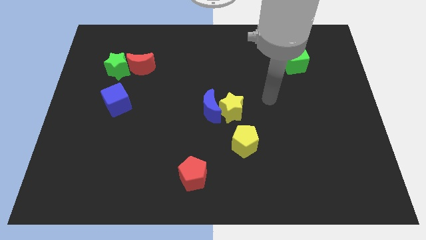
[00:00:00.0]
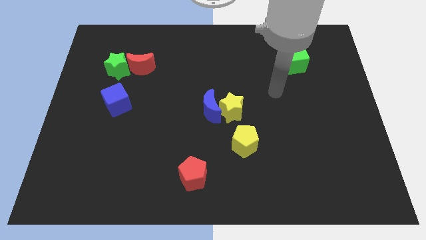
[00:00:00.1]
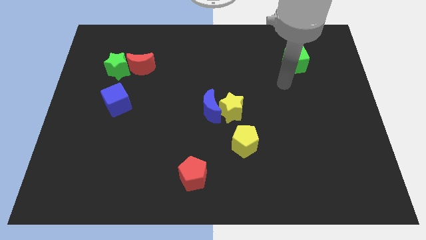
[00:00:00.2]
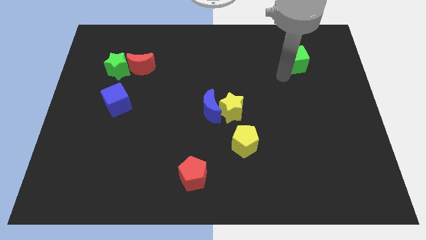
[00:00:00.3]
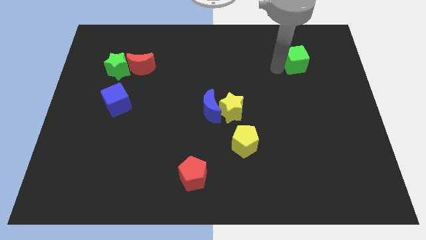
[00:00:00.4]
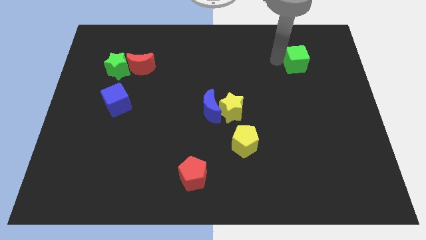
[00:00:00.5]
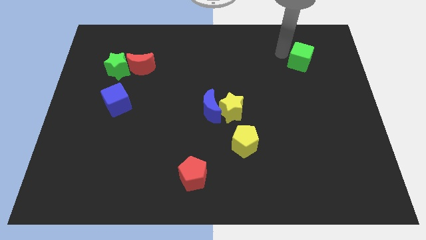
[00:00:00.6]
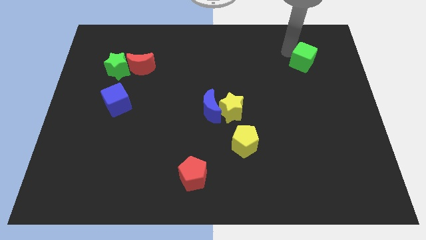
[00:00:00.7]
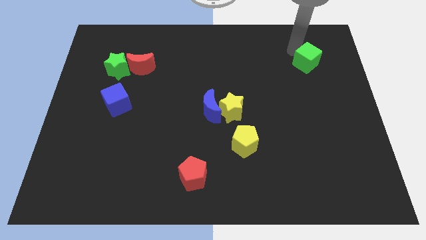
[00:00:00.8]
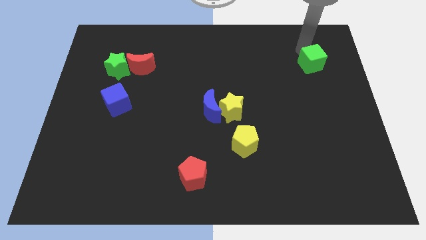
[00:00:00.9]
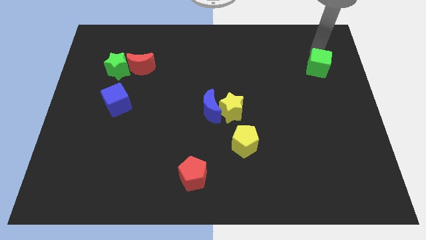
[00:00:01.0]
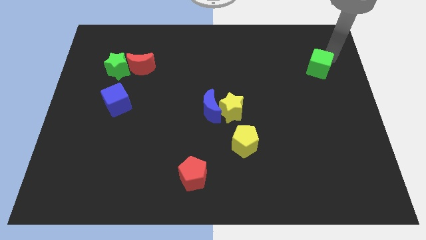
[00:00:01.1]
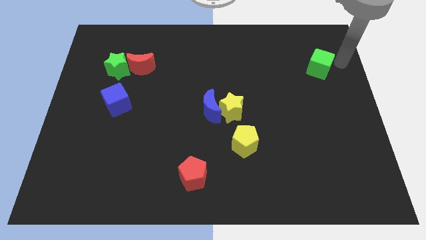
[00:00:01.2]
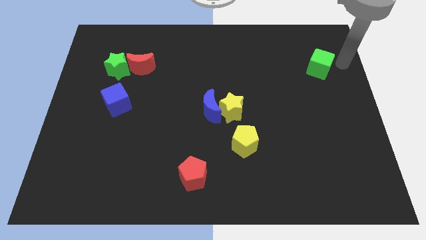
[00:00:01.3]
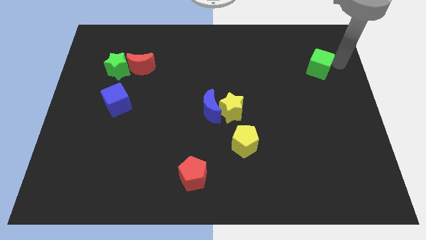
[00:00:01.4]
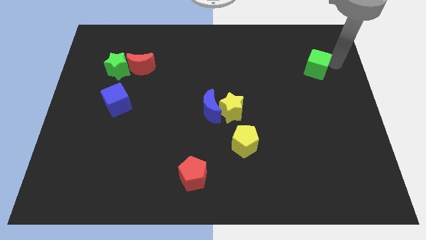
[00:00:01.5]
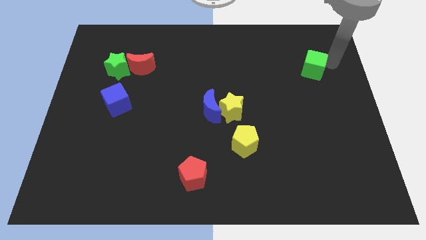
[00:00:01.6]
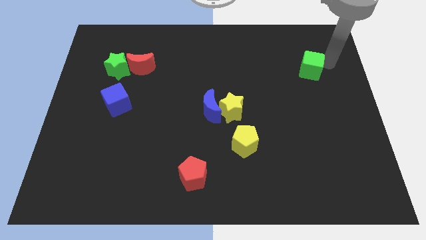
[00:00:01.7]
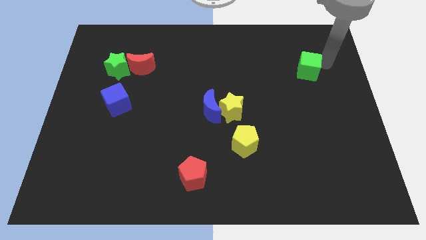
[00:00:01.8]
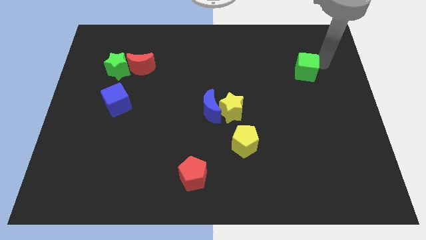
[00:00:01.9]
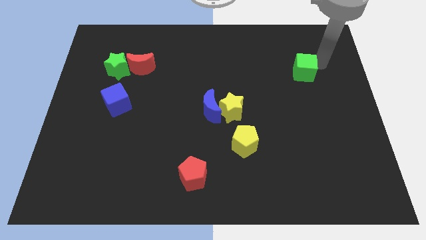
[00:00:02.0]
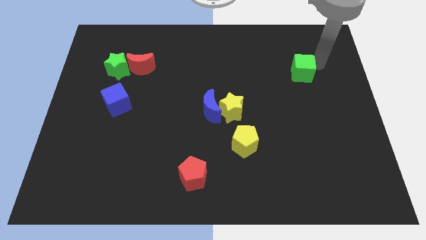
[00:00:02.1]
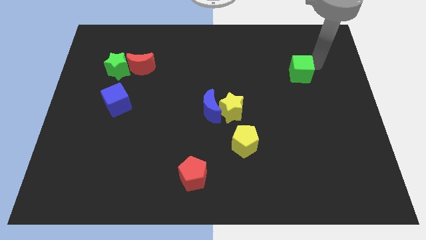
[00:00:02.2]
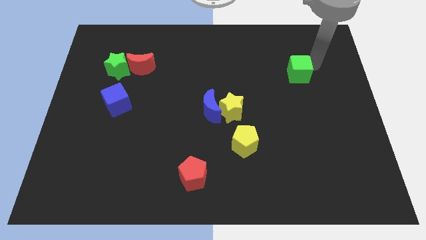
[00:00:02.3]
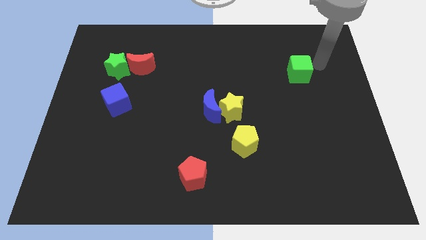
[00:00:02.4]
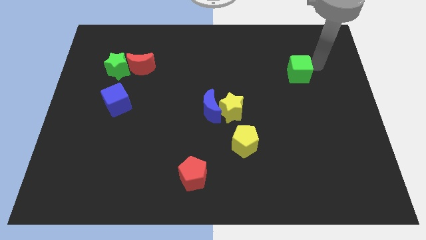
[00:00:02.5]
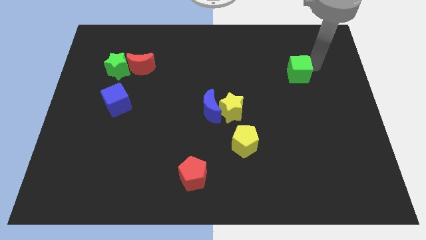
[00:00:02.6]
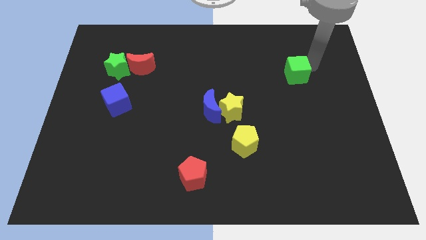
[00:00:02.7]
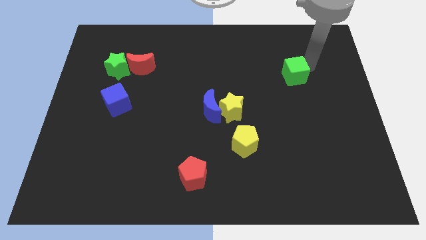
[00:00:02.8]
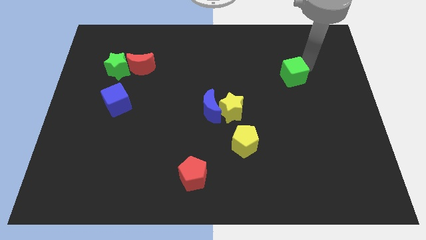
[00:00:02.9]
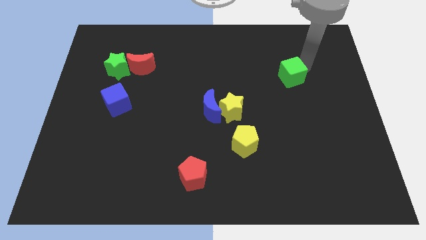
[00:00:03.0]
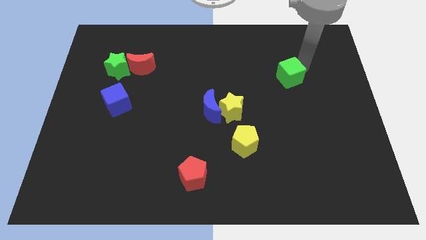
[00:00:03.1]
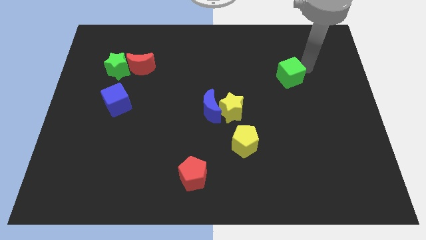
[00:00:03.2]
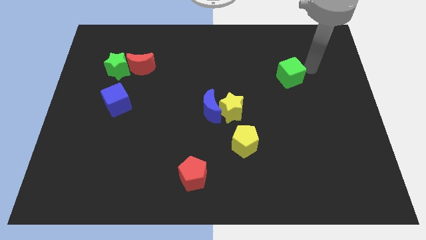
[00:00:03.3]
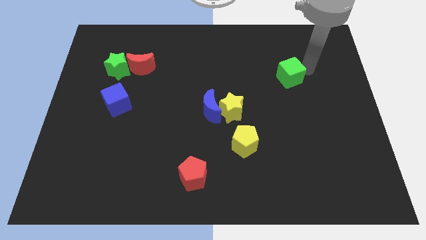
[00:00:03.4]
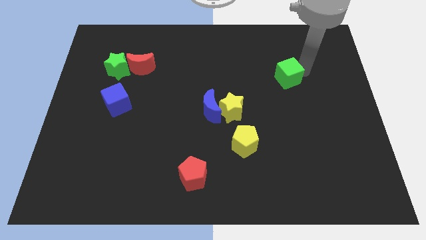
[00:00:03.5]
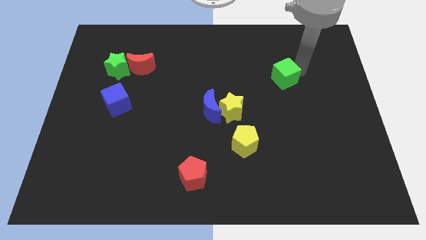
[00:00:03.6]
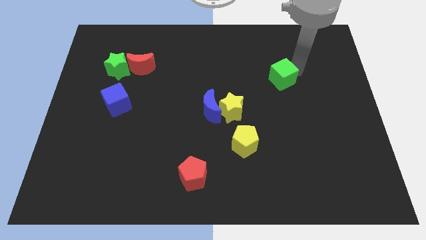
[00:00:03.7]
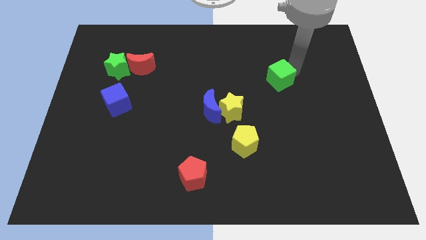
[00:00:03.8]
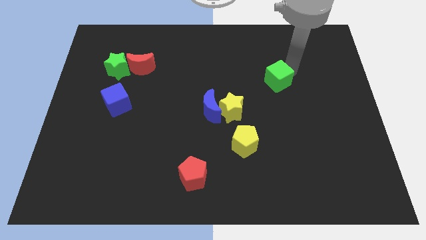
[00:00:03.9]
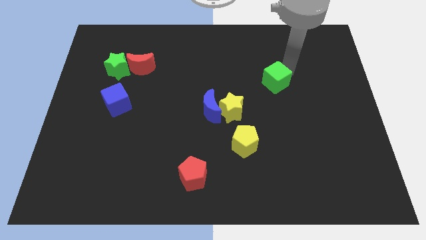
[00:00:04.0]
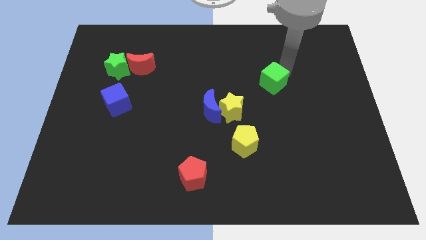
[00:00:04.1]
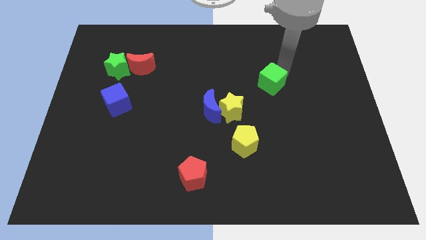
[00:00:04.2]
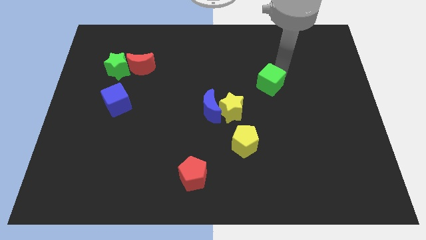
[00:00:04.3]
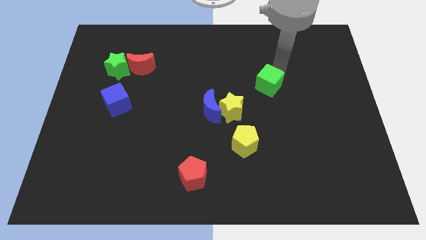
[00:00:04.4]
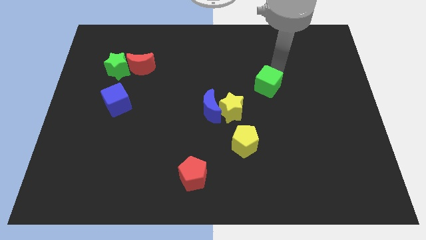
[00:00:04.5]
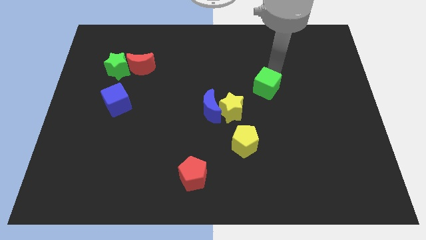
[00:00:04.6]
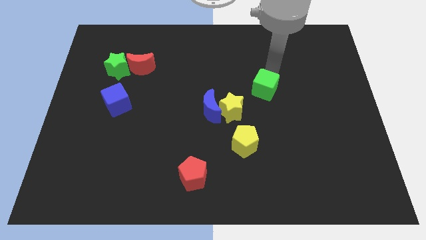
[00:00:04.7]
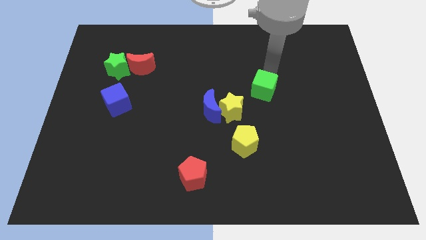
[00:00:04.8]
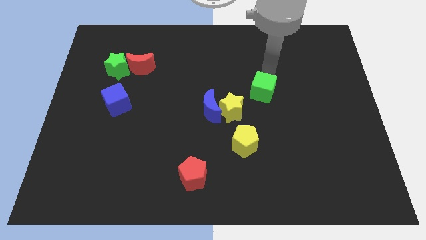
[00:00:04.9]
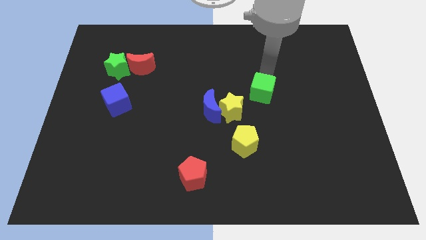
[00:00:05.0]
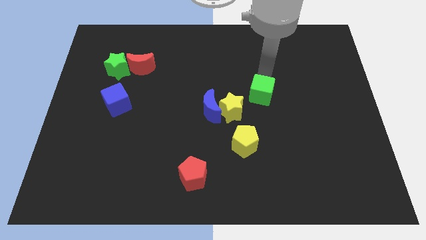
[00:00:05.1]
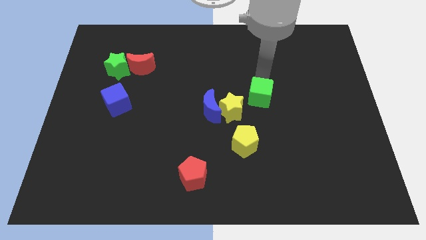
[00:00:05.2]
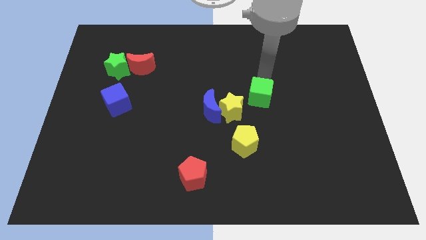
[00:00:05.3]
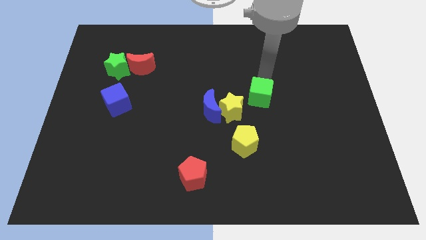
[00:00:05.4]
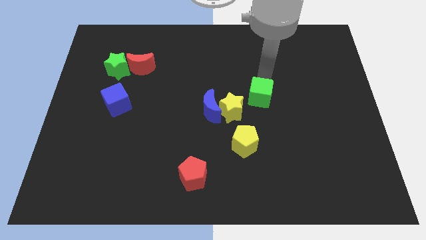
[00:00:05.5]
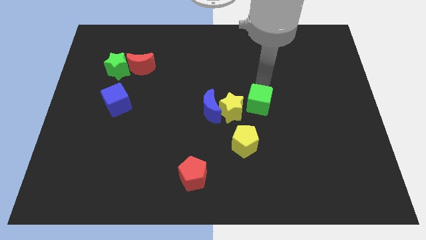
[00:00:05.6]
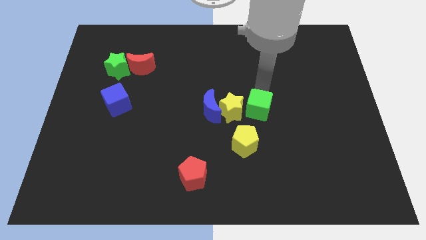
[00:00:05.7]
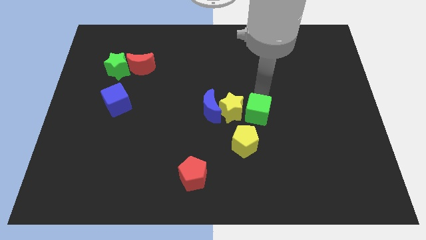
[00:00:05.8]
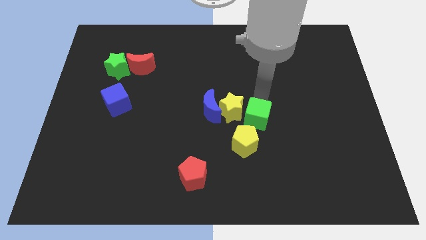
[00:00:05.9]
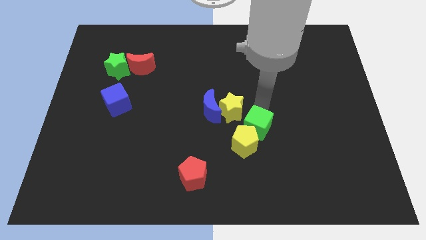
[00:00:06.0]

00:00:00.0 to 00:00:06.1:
slide the green cube down and to the left

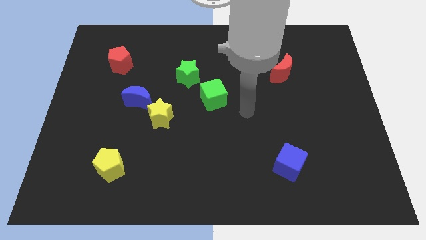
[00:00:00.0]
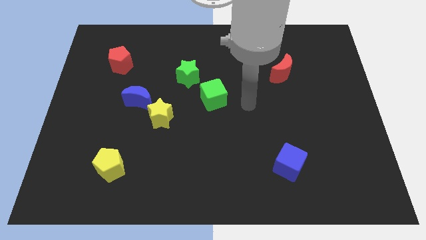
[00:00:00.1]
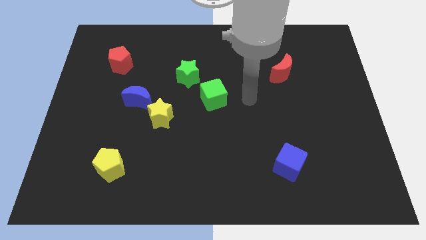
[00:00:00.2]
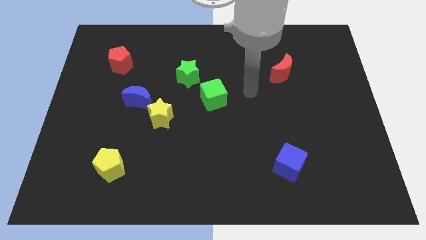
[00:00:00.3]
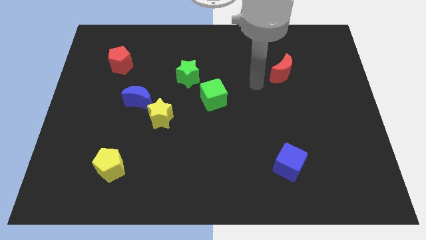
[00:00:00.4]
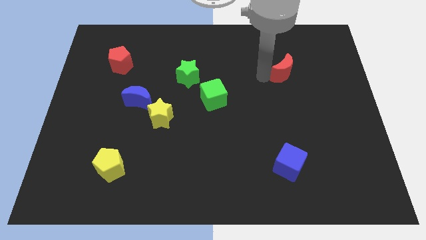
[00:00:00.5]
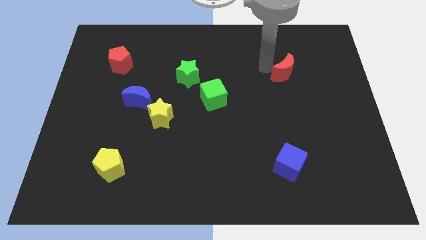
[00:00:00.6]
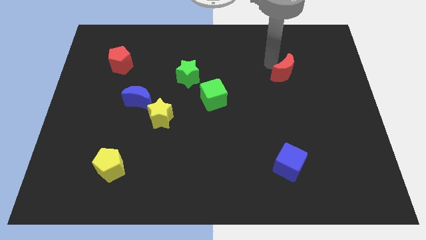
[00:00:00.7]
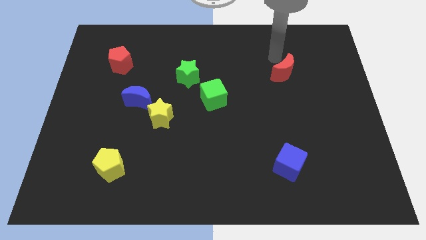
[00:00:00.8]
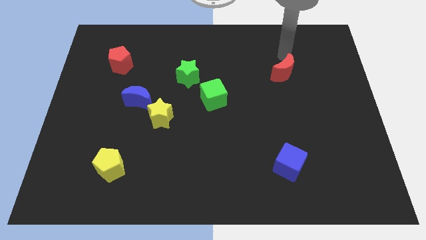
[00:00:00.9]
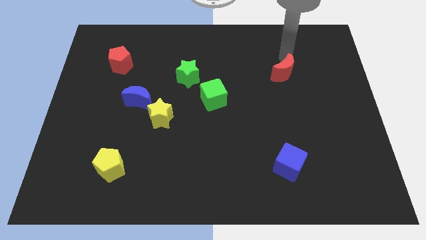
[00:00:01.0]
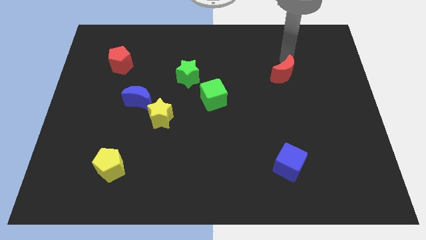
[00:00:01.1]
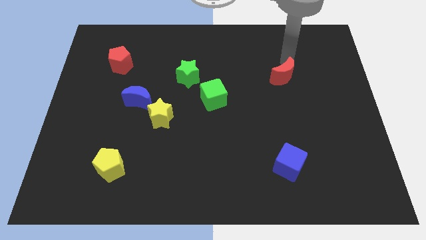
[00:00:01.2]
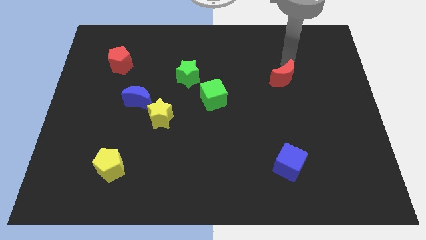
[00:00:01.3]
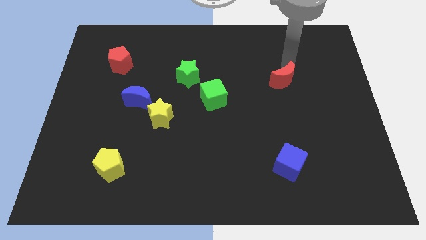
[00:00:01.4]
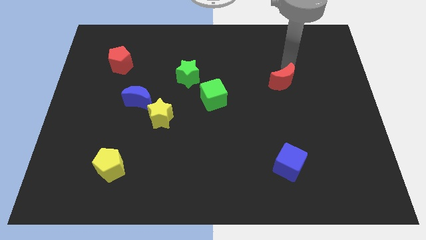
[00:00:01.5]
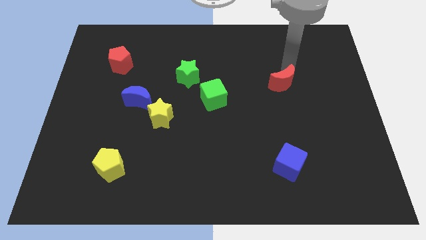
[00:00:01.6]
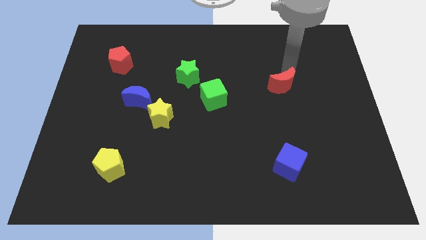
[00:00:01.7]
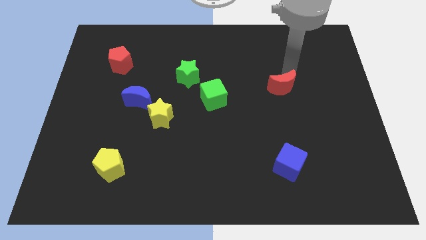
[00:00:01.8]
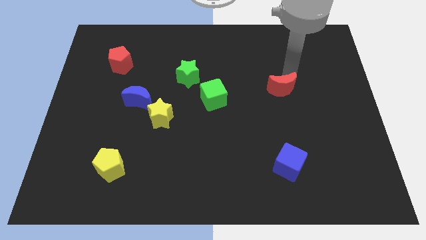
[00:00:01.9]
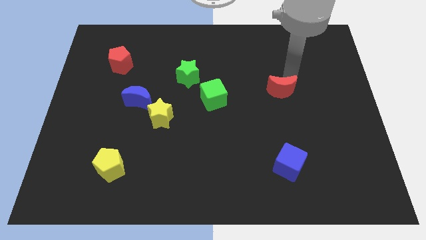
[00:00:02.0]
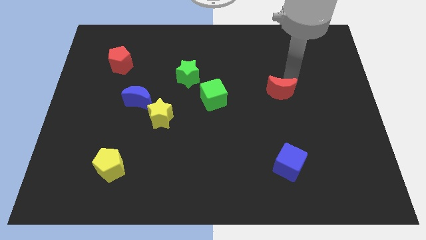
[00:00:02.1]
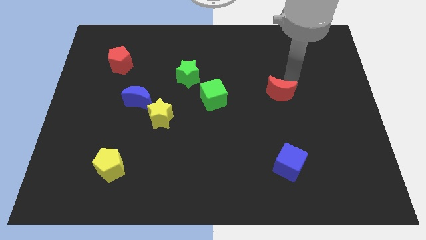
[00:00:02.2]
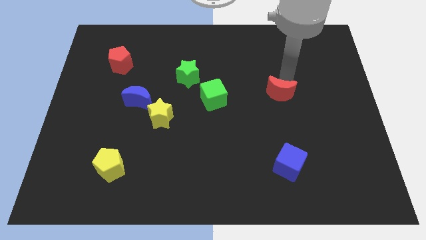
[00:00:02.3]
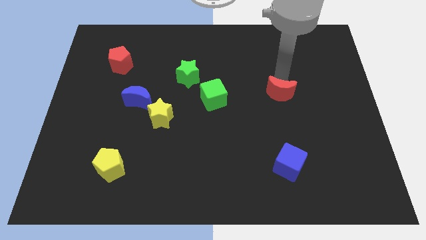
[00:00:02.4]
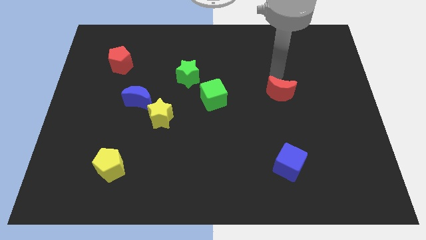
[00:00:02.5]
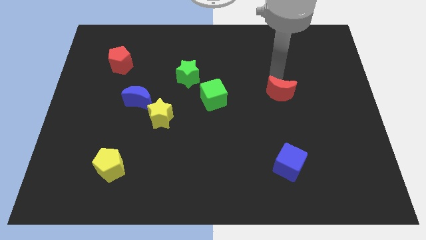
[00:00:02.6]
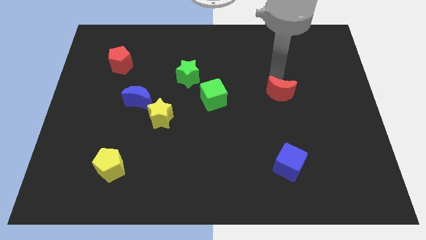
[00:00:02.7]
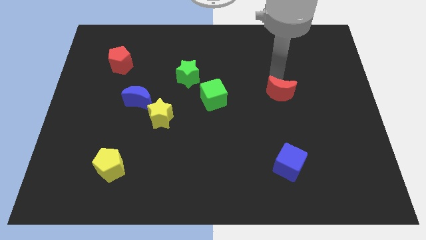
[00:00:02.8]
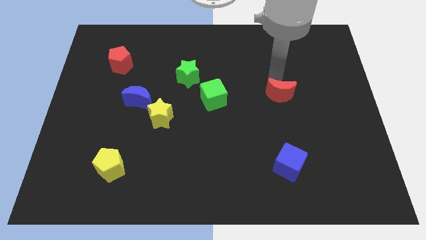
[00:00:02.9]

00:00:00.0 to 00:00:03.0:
push the red moon downwards a little bit
